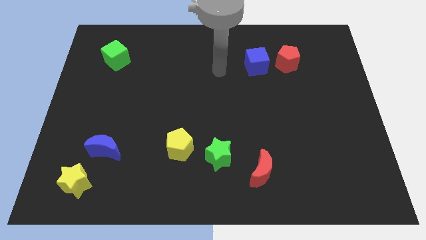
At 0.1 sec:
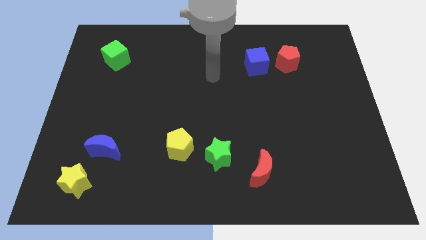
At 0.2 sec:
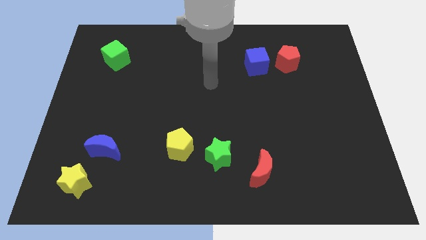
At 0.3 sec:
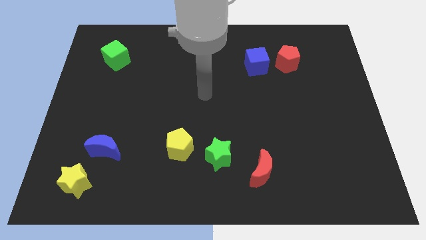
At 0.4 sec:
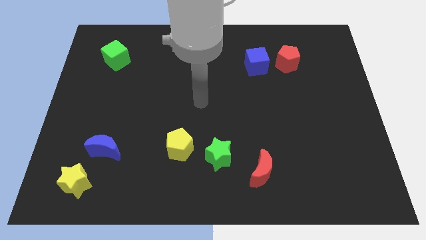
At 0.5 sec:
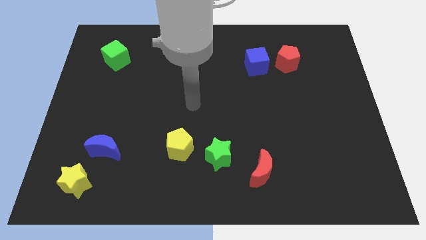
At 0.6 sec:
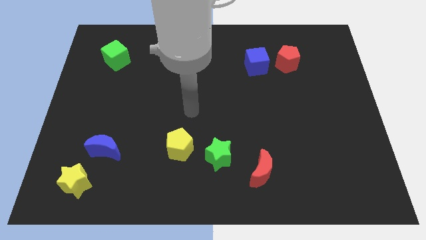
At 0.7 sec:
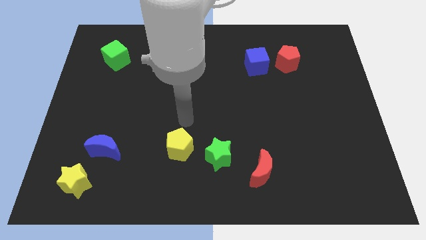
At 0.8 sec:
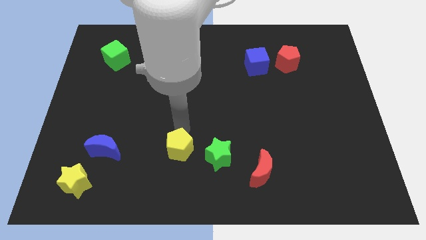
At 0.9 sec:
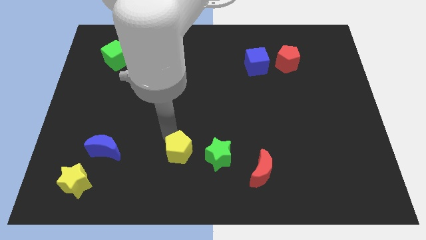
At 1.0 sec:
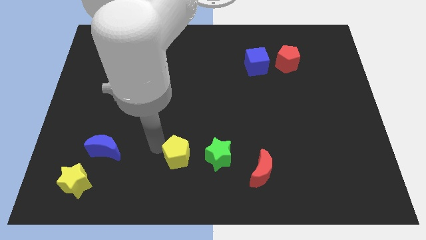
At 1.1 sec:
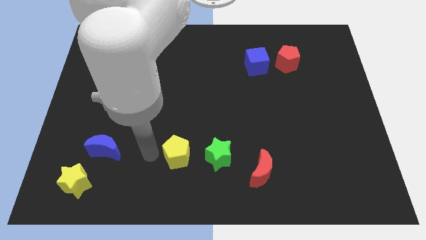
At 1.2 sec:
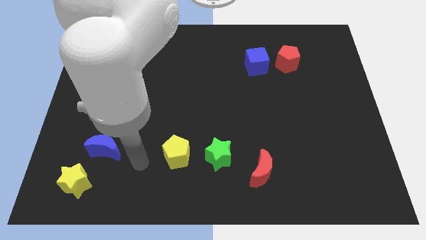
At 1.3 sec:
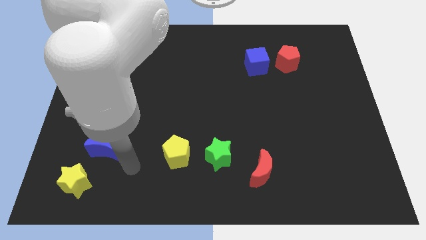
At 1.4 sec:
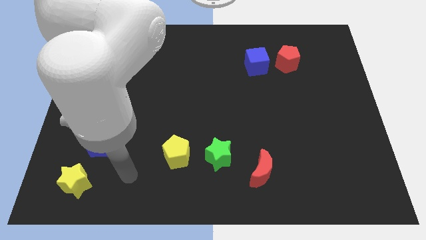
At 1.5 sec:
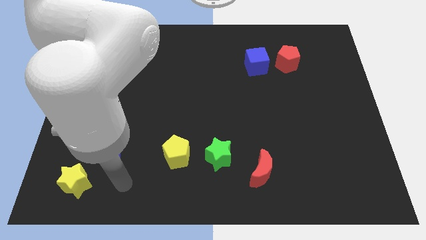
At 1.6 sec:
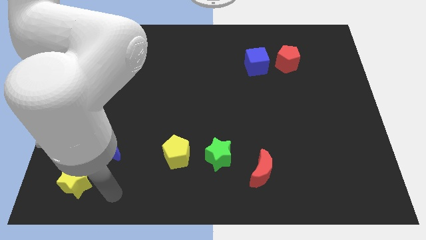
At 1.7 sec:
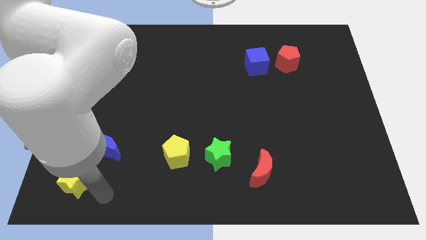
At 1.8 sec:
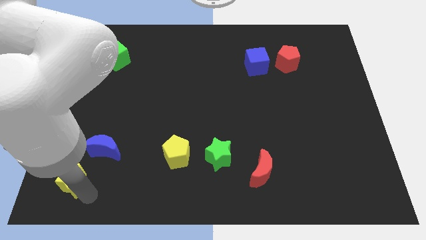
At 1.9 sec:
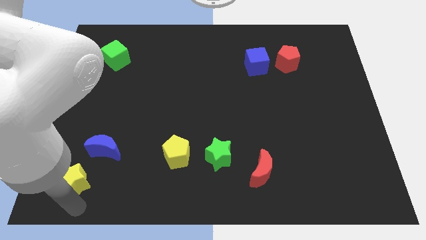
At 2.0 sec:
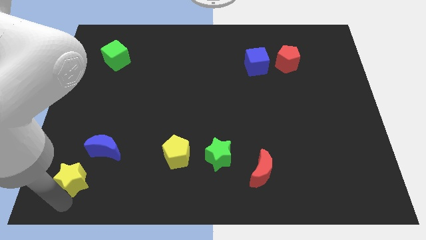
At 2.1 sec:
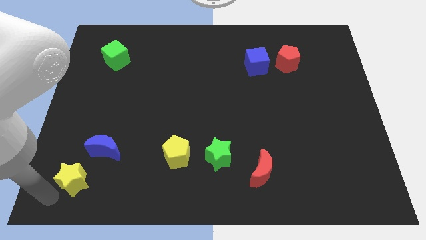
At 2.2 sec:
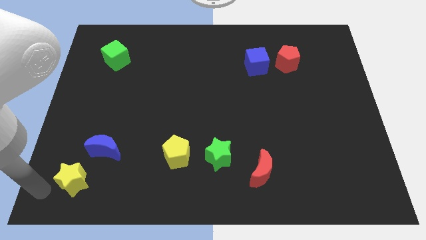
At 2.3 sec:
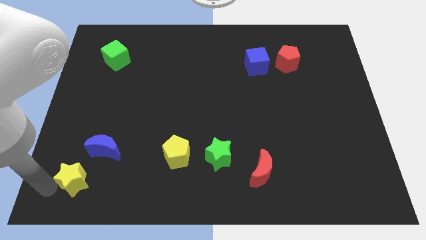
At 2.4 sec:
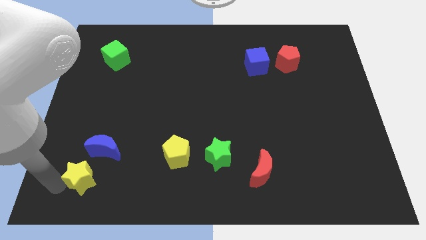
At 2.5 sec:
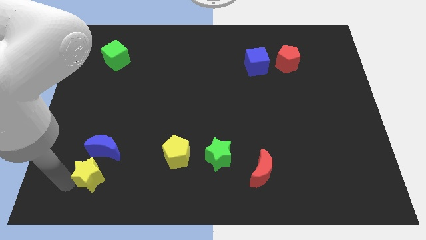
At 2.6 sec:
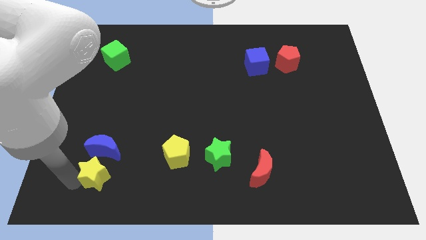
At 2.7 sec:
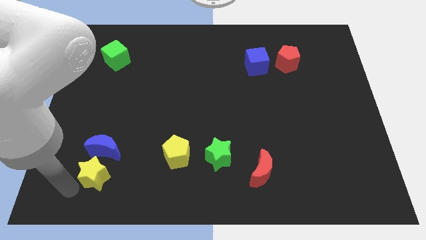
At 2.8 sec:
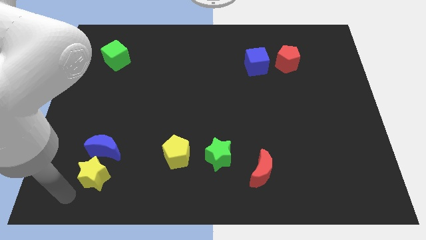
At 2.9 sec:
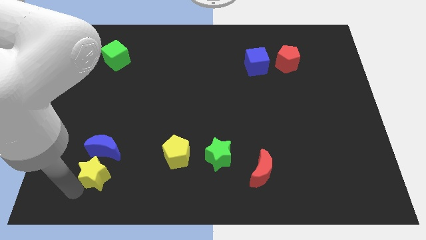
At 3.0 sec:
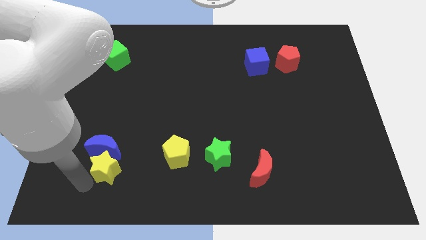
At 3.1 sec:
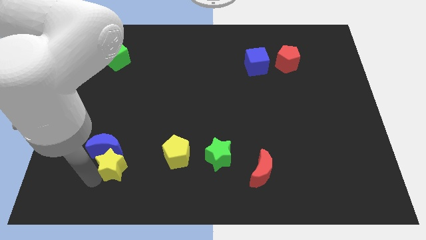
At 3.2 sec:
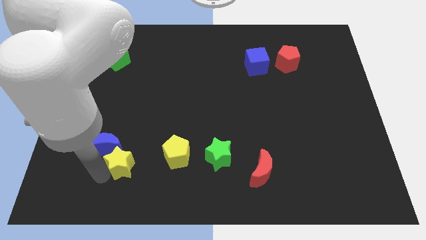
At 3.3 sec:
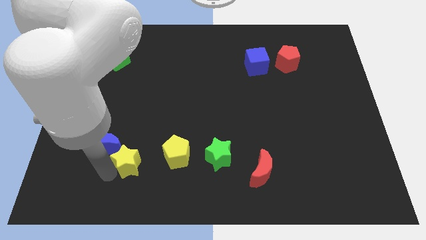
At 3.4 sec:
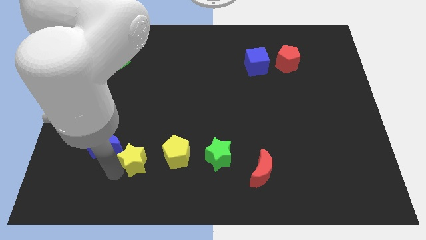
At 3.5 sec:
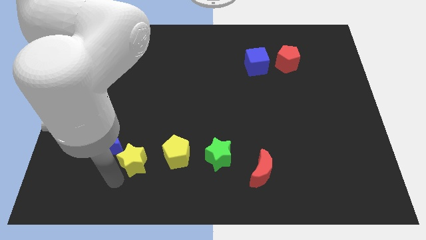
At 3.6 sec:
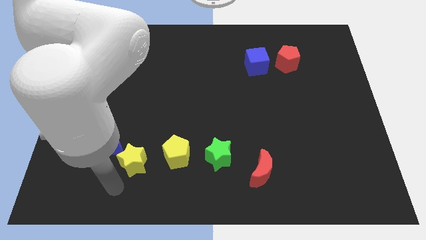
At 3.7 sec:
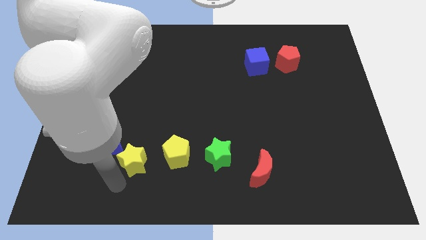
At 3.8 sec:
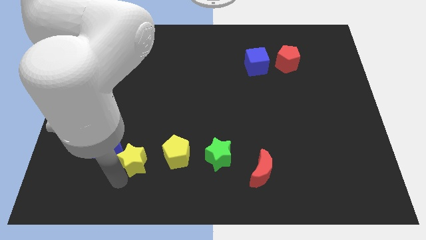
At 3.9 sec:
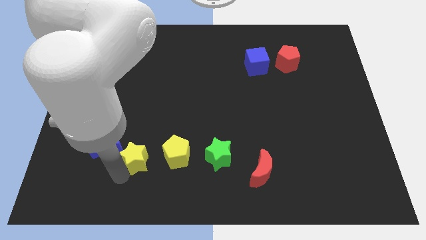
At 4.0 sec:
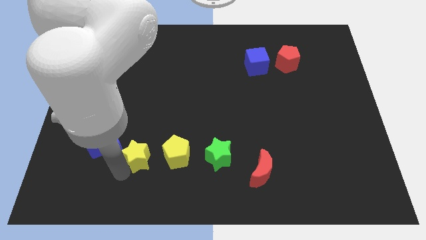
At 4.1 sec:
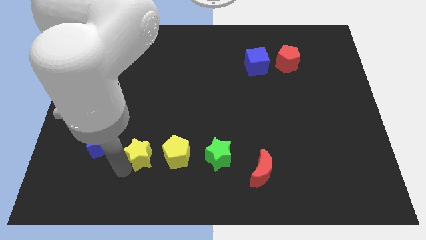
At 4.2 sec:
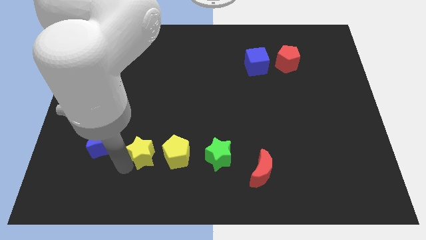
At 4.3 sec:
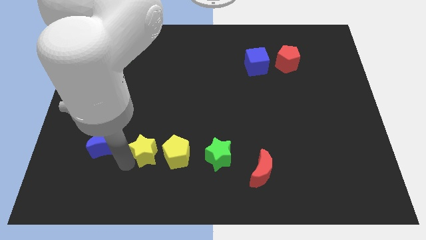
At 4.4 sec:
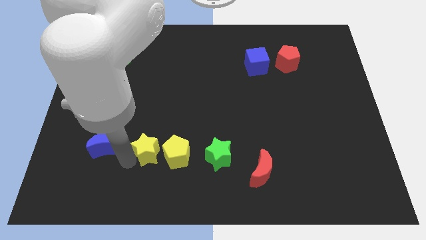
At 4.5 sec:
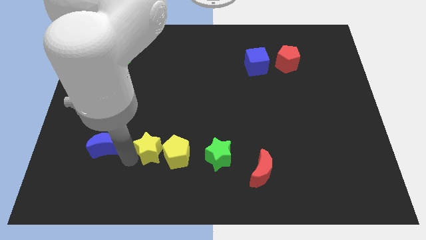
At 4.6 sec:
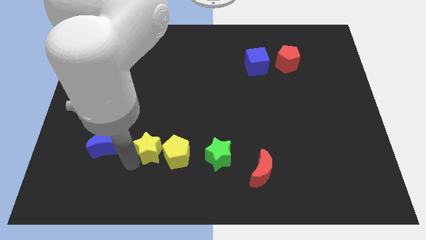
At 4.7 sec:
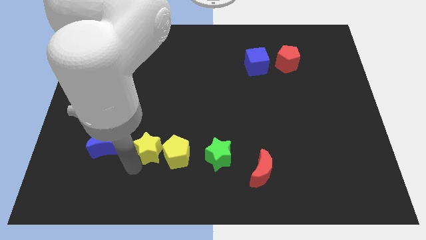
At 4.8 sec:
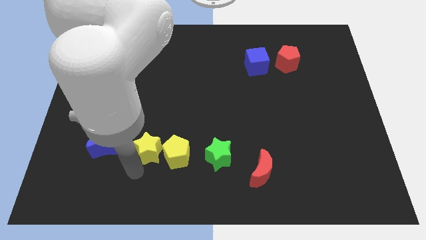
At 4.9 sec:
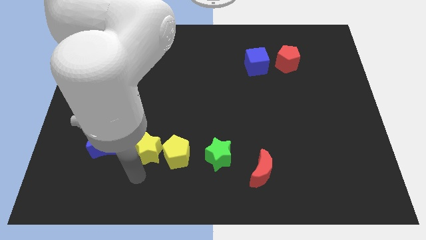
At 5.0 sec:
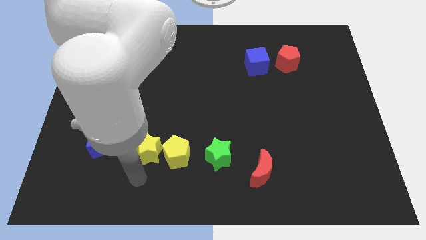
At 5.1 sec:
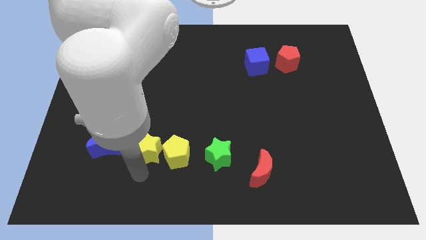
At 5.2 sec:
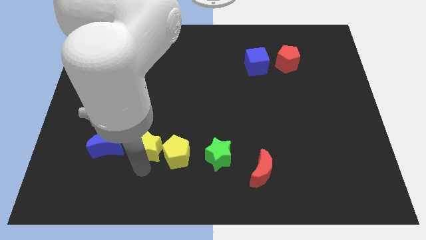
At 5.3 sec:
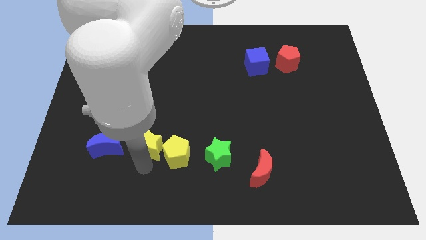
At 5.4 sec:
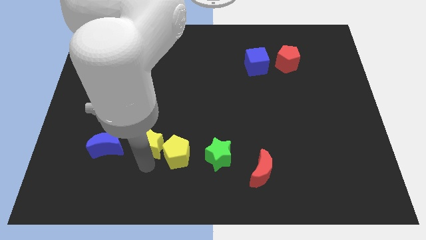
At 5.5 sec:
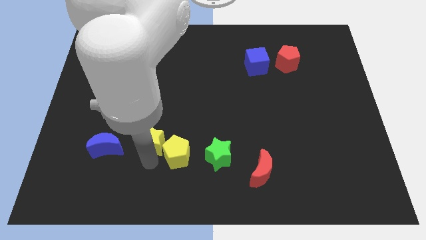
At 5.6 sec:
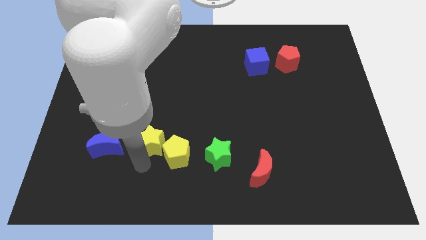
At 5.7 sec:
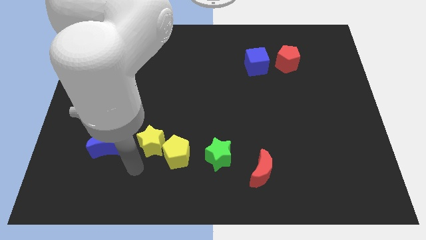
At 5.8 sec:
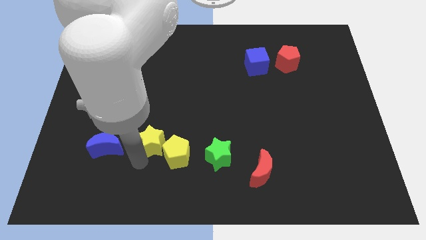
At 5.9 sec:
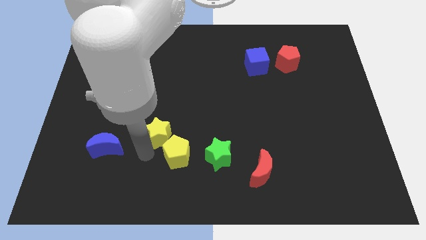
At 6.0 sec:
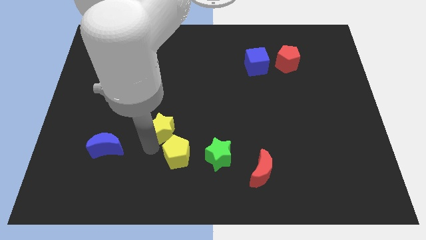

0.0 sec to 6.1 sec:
push the yellow star upwards and then to the right

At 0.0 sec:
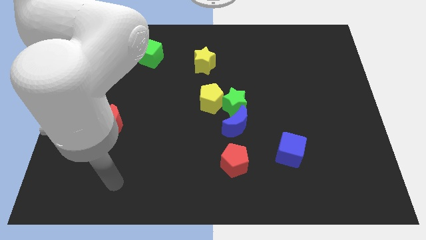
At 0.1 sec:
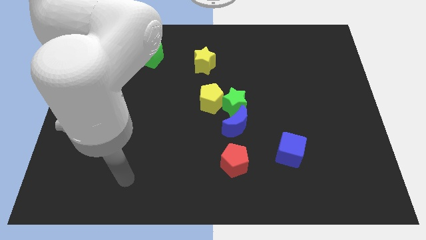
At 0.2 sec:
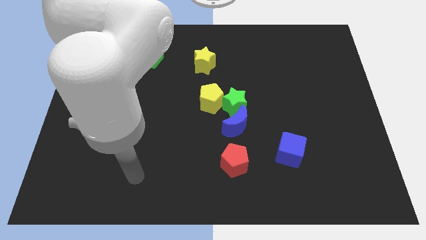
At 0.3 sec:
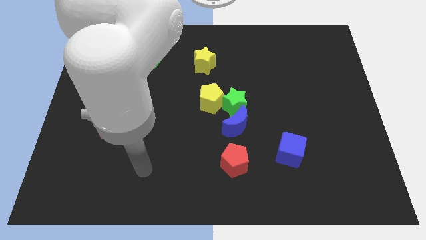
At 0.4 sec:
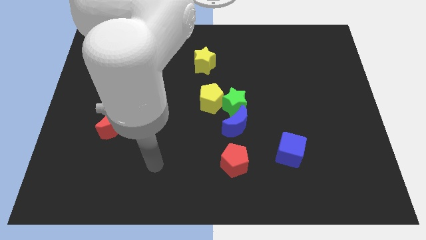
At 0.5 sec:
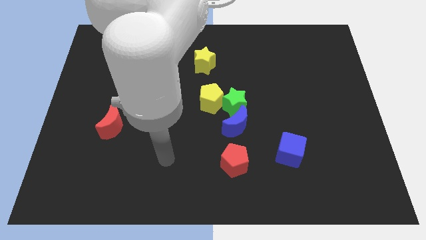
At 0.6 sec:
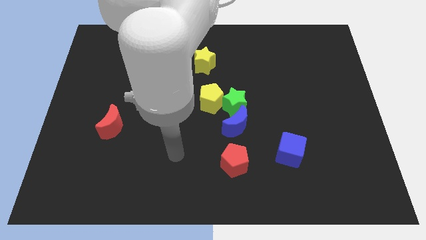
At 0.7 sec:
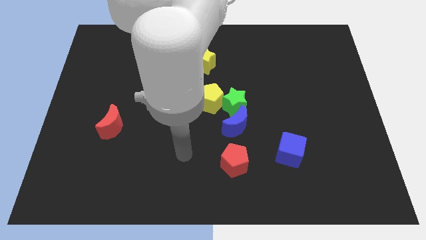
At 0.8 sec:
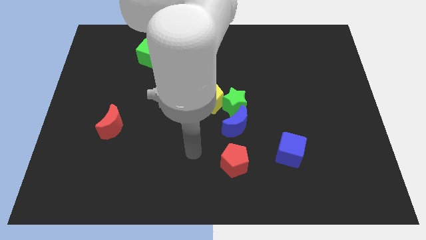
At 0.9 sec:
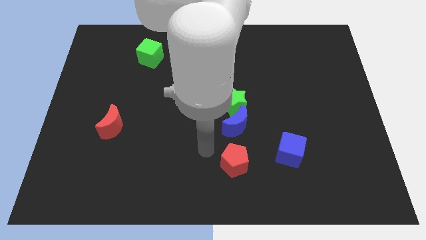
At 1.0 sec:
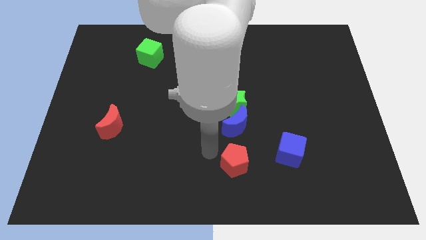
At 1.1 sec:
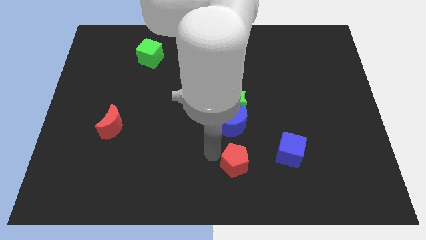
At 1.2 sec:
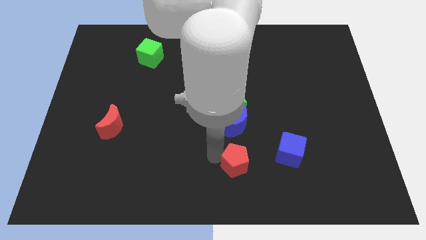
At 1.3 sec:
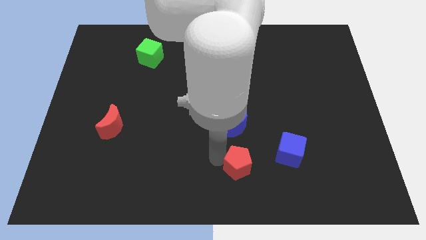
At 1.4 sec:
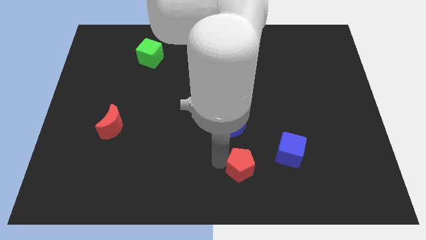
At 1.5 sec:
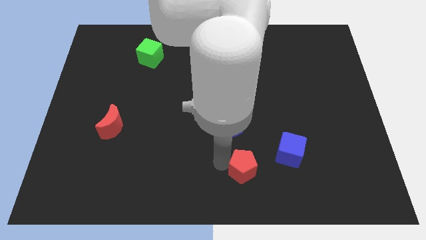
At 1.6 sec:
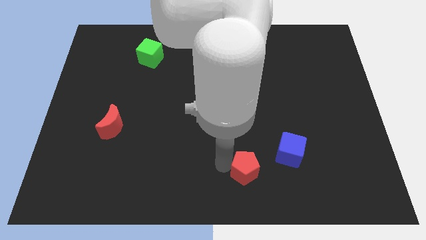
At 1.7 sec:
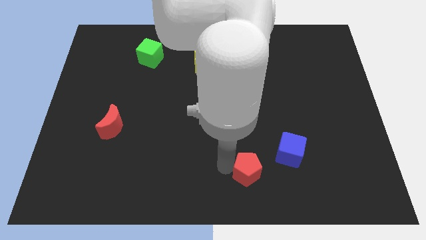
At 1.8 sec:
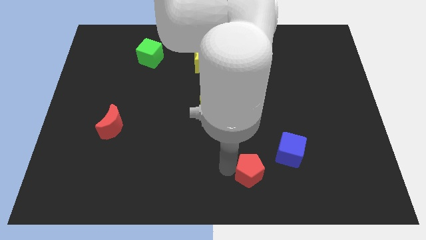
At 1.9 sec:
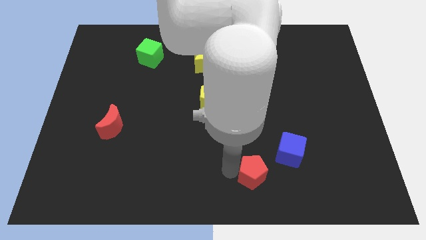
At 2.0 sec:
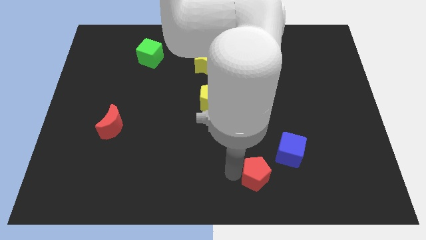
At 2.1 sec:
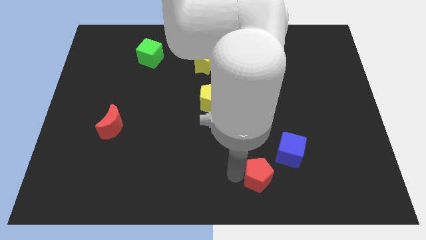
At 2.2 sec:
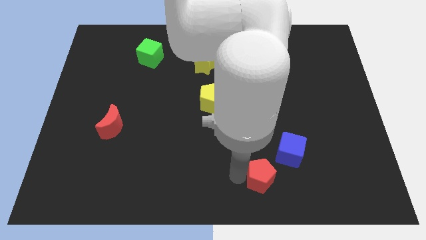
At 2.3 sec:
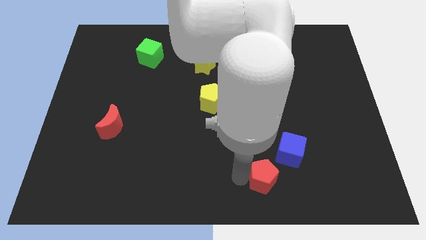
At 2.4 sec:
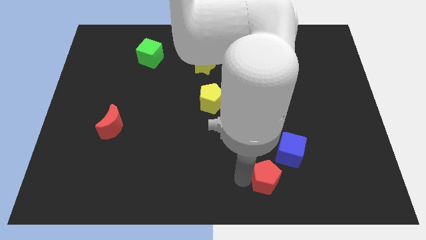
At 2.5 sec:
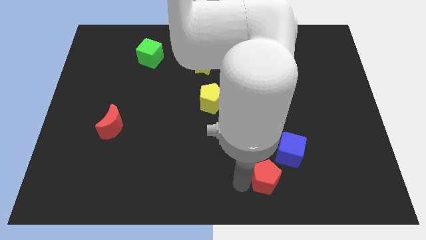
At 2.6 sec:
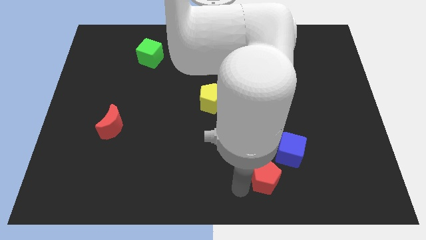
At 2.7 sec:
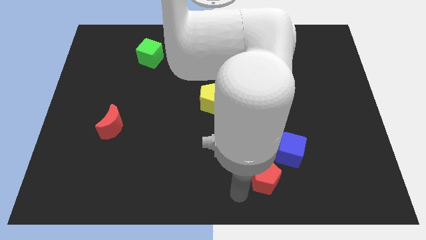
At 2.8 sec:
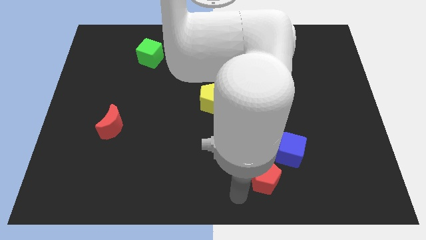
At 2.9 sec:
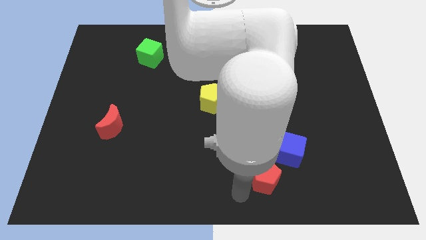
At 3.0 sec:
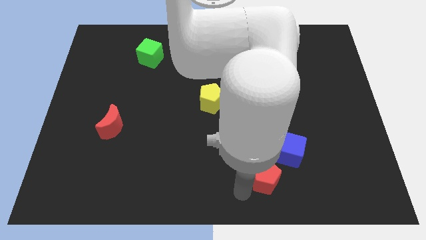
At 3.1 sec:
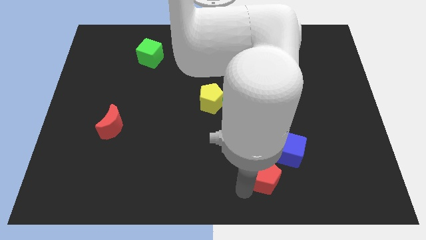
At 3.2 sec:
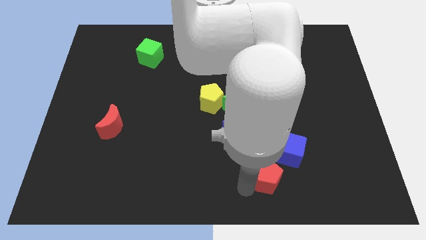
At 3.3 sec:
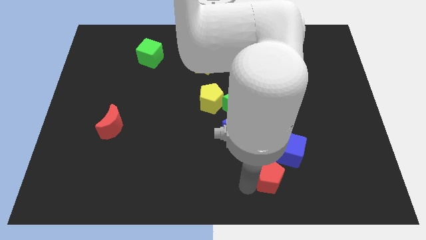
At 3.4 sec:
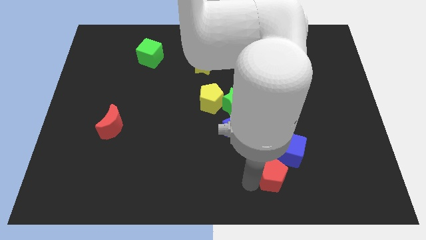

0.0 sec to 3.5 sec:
slightly slide the red pentagon to the right
